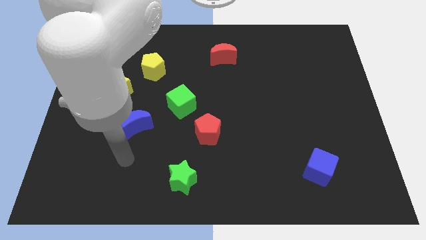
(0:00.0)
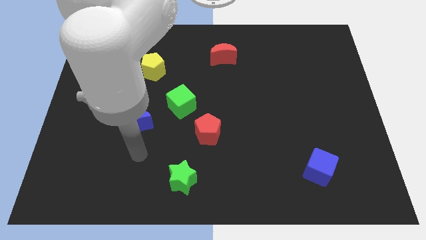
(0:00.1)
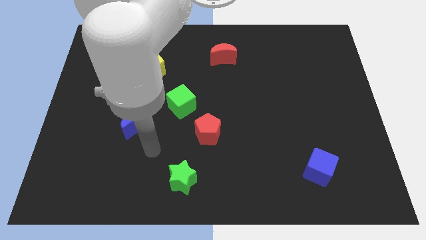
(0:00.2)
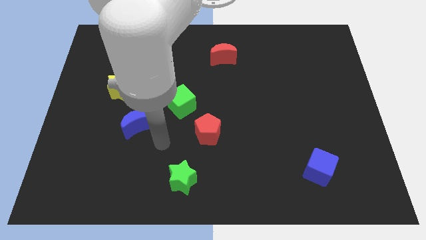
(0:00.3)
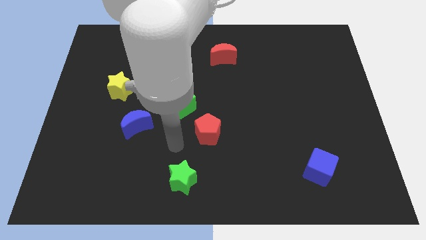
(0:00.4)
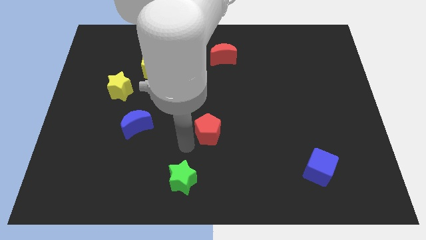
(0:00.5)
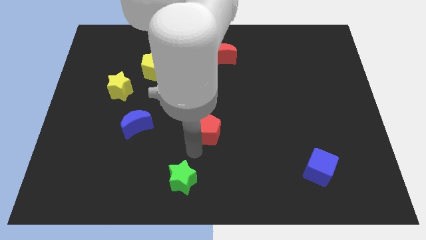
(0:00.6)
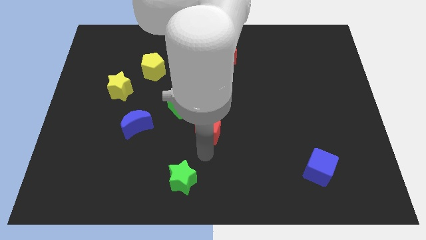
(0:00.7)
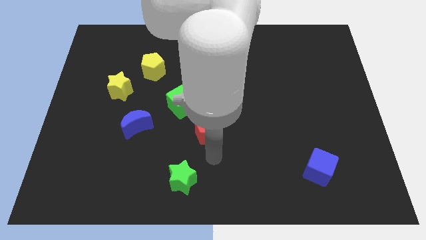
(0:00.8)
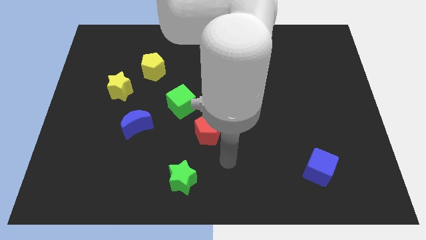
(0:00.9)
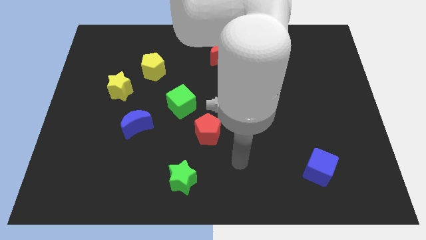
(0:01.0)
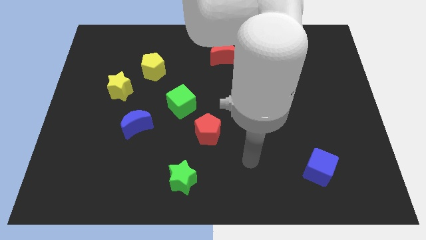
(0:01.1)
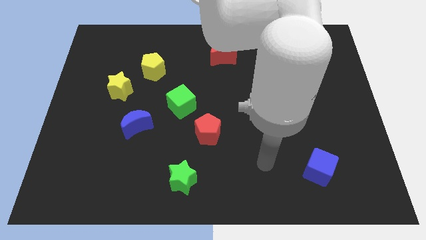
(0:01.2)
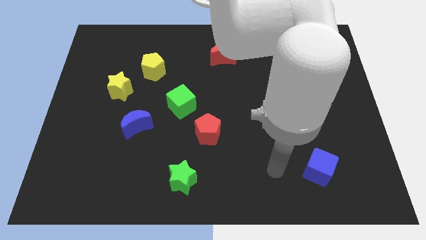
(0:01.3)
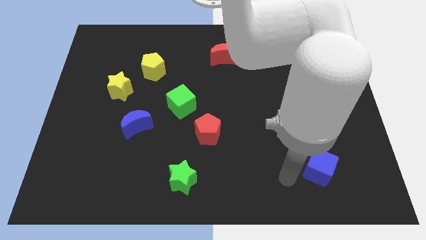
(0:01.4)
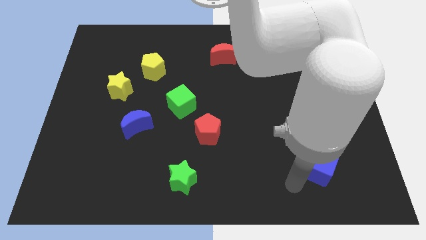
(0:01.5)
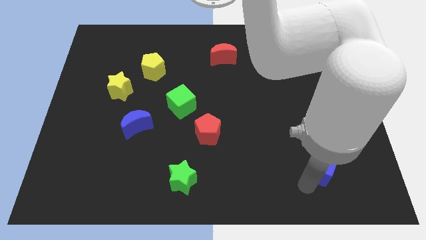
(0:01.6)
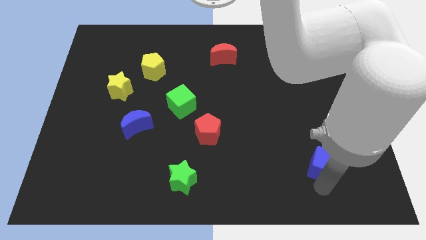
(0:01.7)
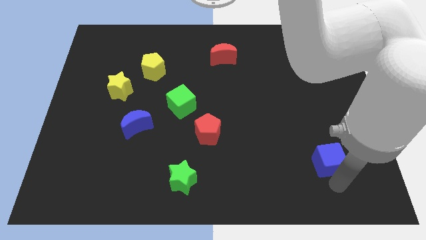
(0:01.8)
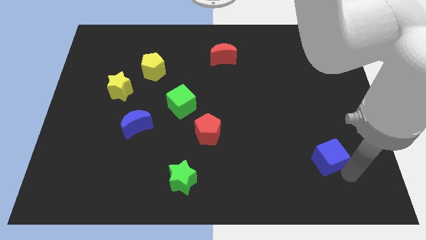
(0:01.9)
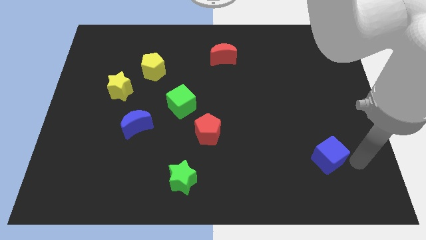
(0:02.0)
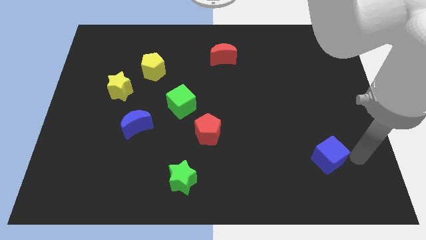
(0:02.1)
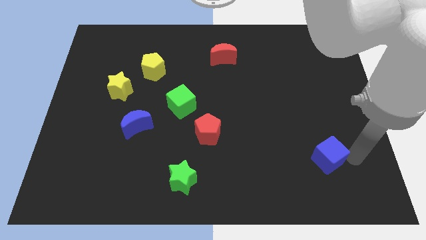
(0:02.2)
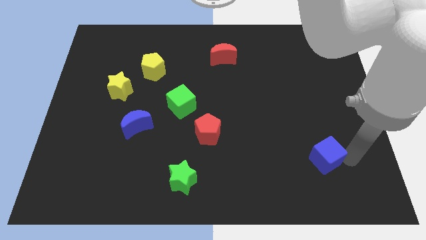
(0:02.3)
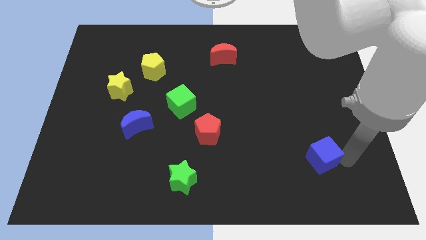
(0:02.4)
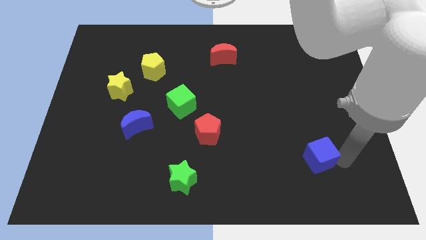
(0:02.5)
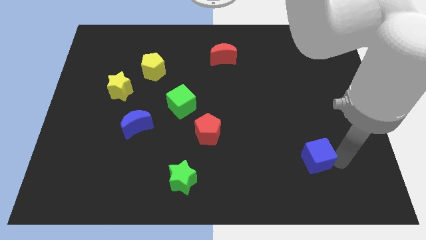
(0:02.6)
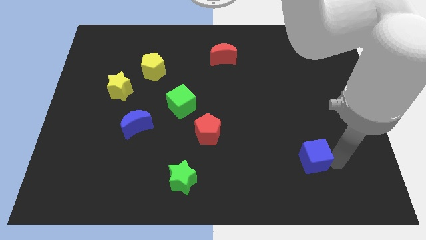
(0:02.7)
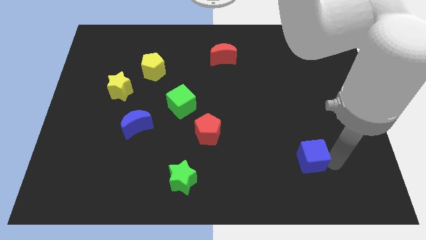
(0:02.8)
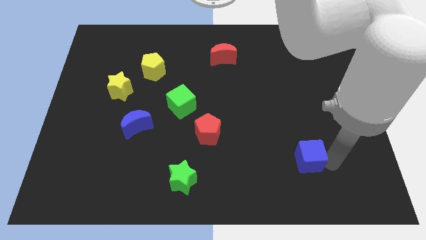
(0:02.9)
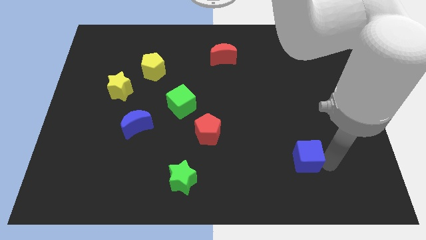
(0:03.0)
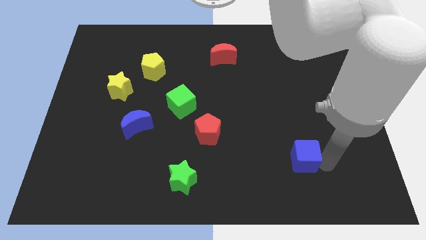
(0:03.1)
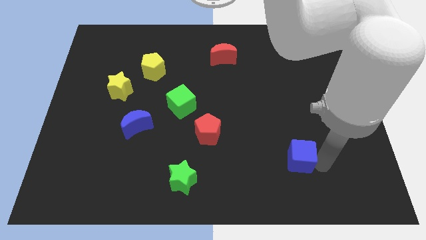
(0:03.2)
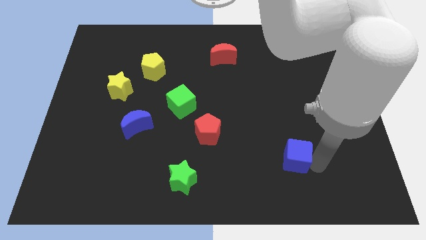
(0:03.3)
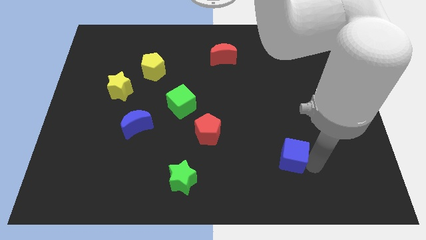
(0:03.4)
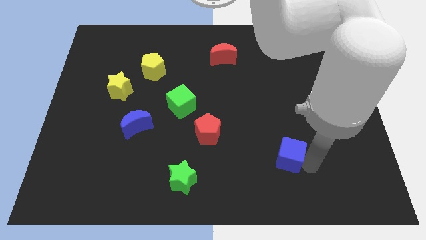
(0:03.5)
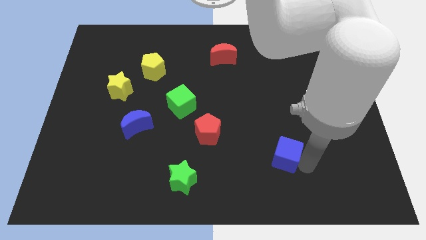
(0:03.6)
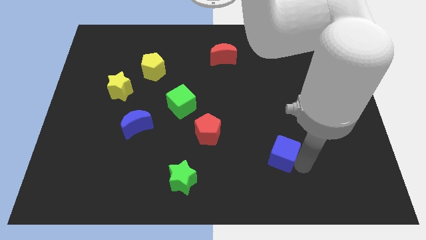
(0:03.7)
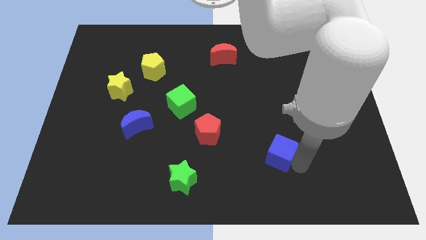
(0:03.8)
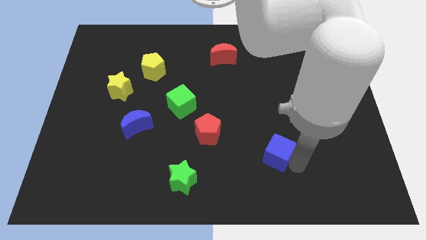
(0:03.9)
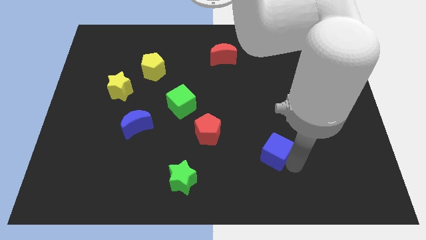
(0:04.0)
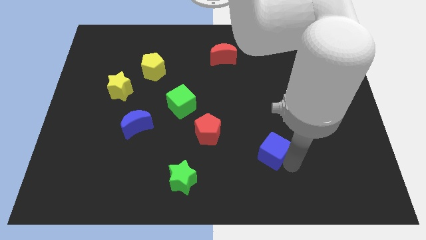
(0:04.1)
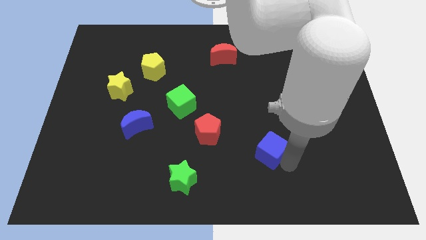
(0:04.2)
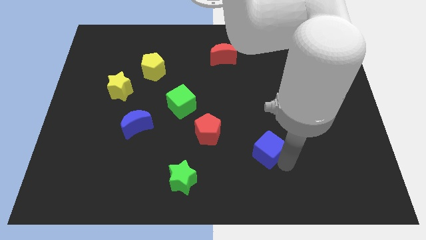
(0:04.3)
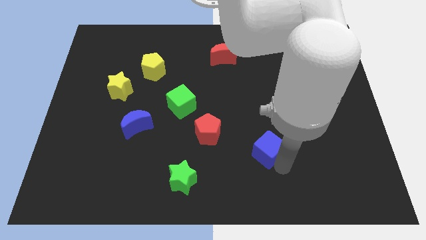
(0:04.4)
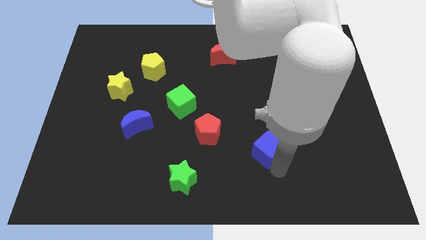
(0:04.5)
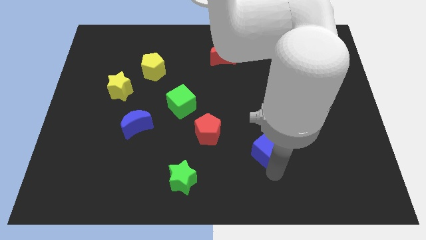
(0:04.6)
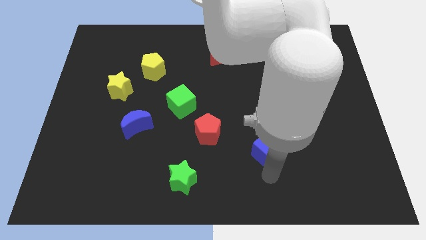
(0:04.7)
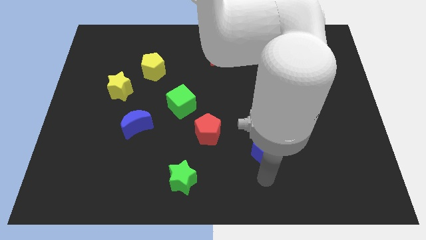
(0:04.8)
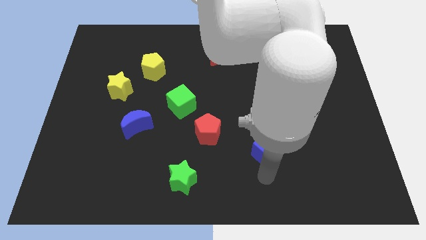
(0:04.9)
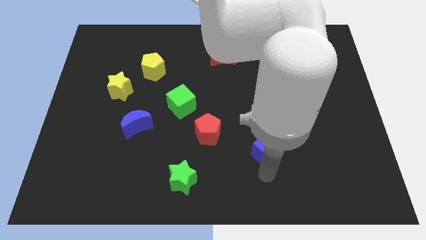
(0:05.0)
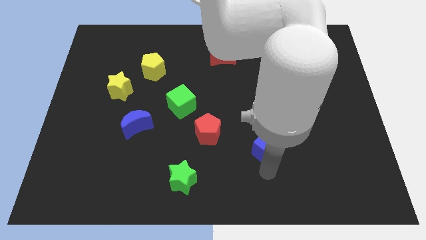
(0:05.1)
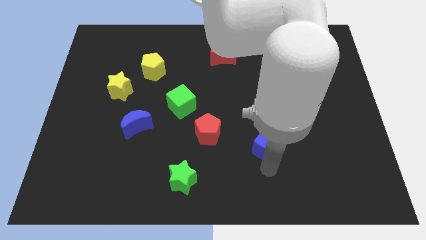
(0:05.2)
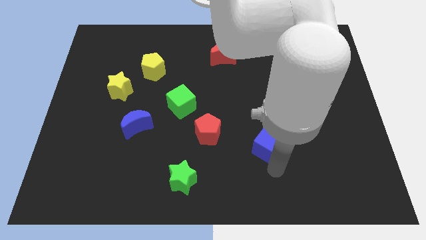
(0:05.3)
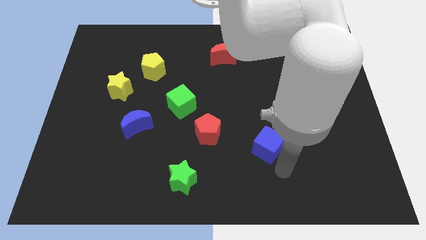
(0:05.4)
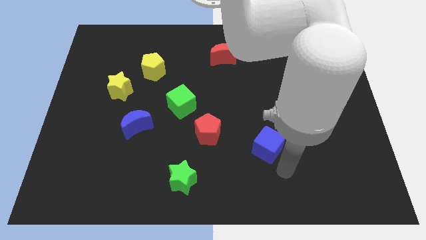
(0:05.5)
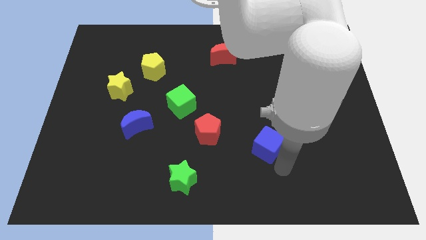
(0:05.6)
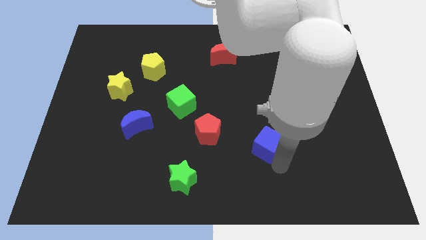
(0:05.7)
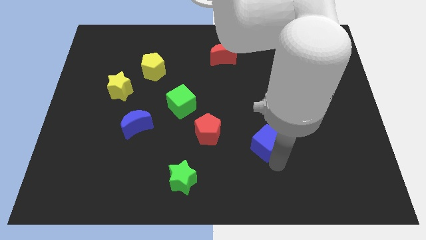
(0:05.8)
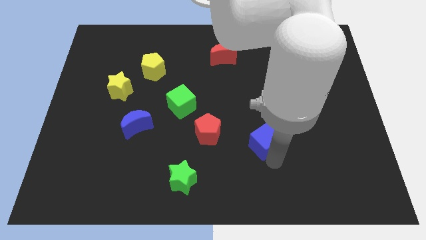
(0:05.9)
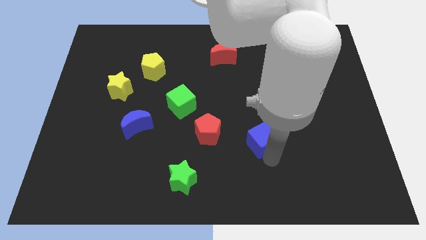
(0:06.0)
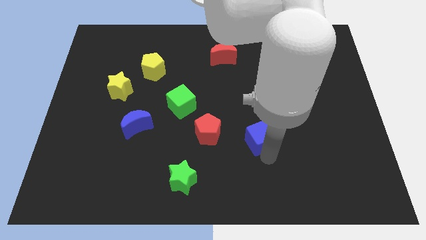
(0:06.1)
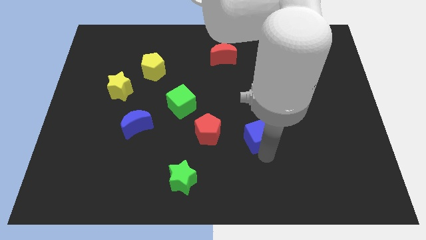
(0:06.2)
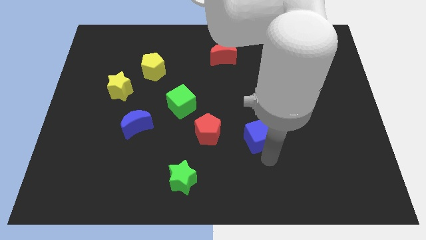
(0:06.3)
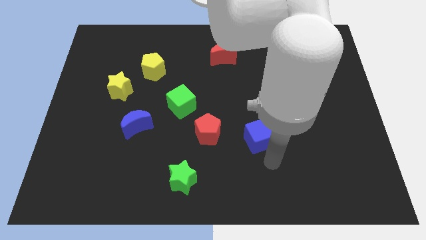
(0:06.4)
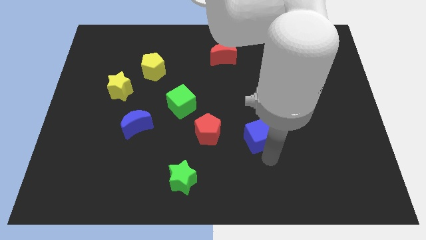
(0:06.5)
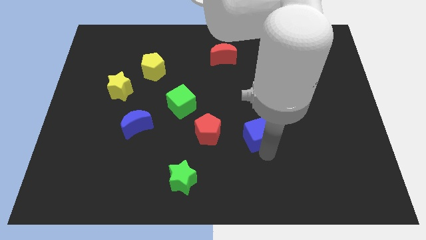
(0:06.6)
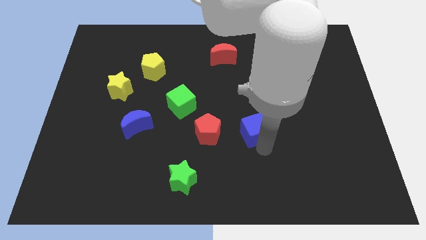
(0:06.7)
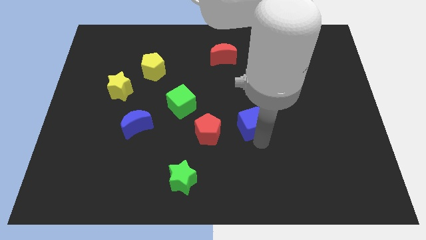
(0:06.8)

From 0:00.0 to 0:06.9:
push the blue cube to the center of the board
